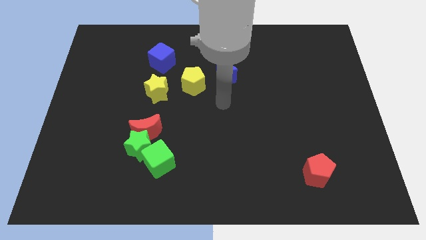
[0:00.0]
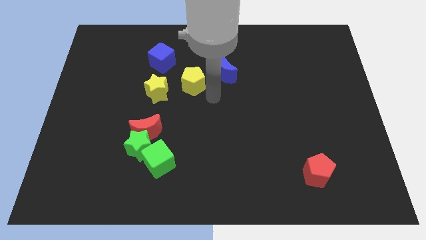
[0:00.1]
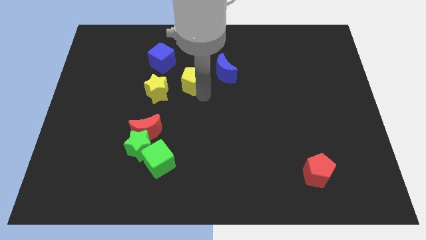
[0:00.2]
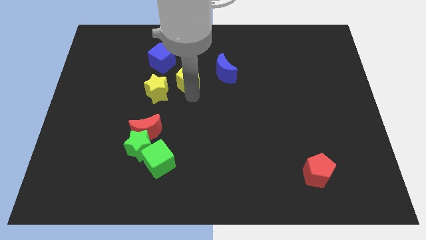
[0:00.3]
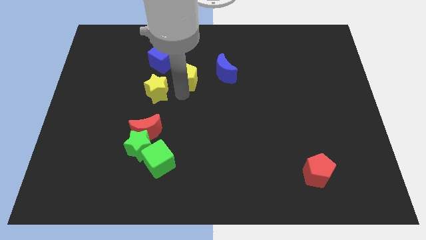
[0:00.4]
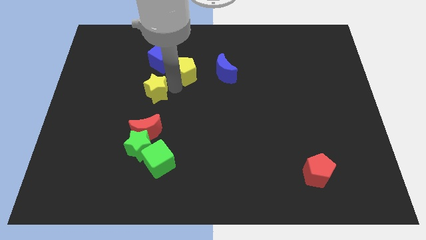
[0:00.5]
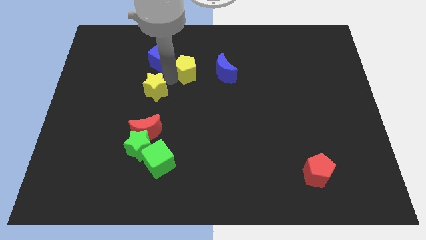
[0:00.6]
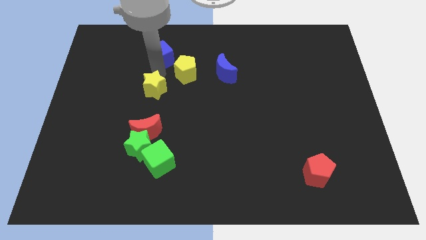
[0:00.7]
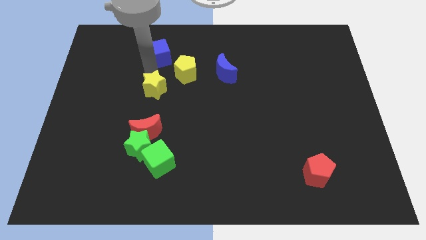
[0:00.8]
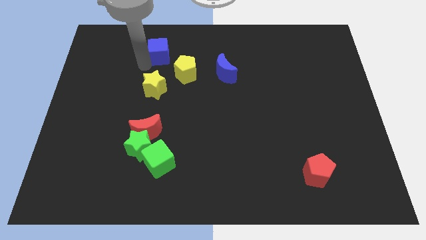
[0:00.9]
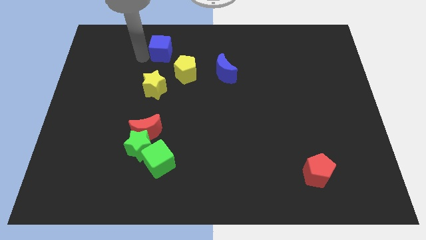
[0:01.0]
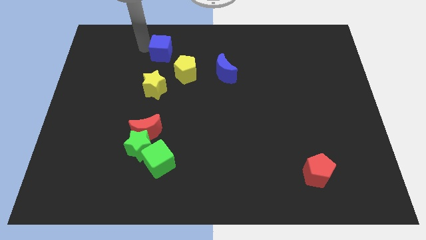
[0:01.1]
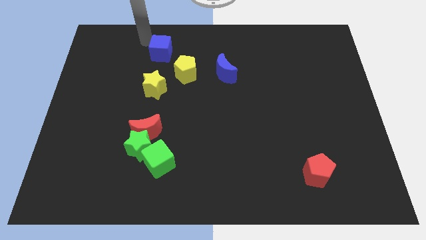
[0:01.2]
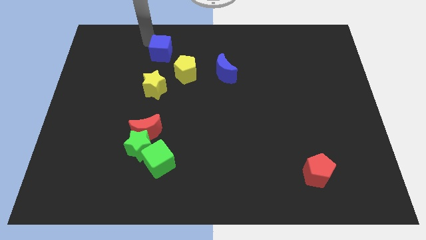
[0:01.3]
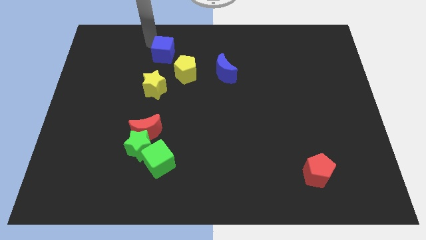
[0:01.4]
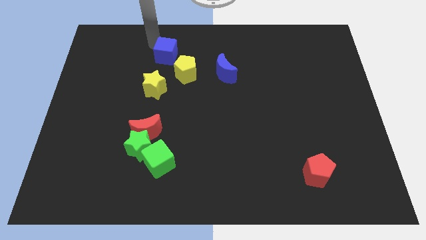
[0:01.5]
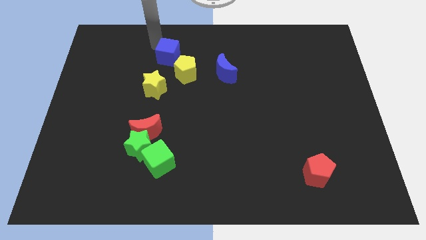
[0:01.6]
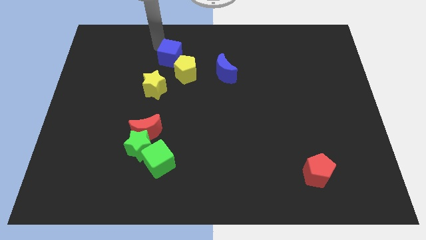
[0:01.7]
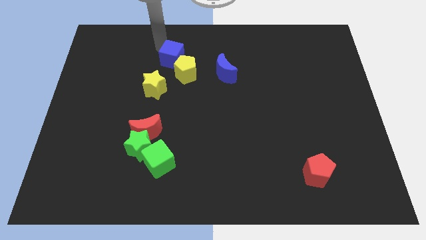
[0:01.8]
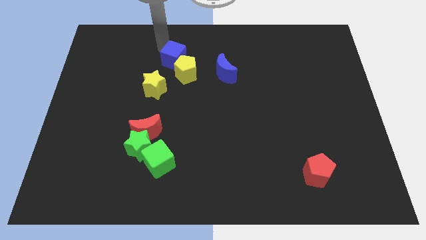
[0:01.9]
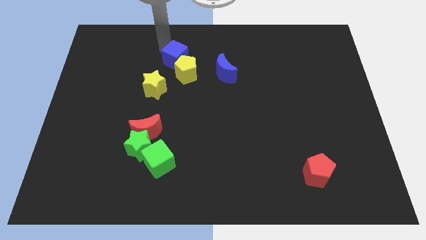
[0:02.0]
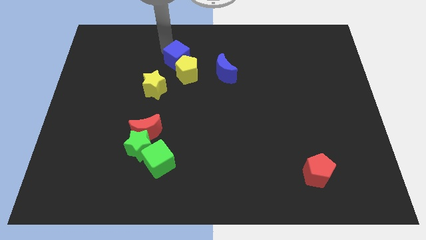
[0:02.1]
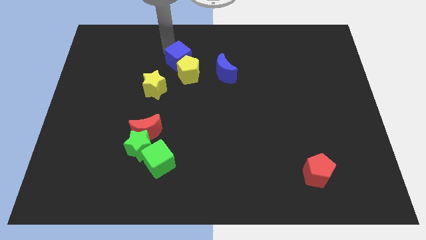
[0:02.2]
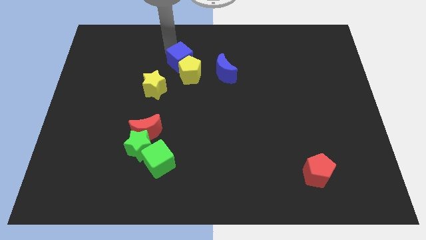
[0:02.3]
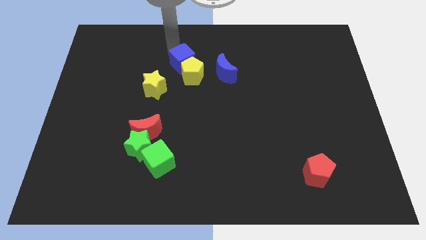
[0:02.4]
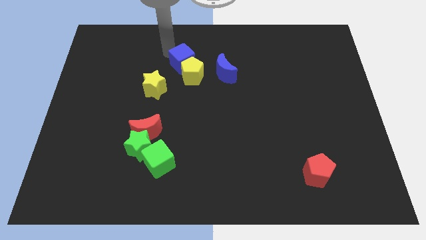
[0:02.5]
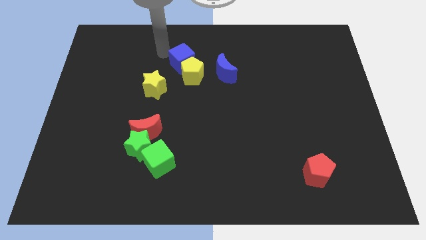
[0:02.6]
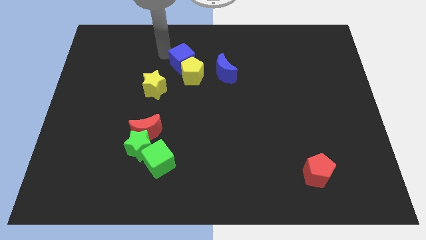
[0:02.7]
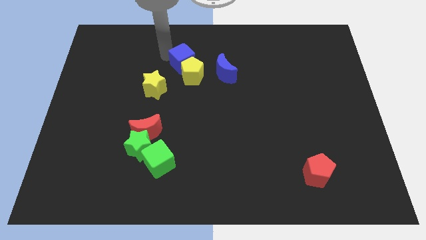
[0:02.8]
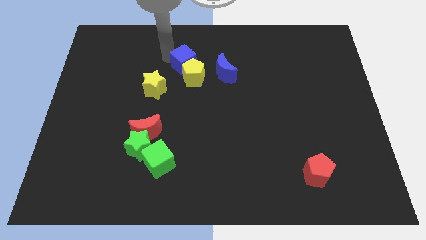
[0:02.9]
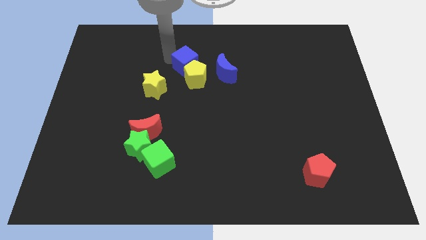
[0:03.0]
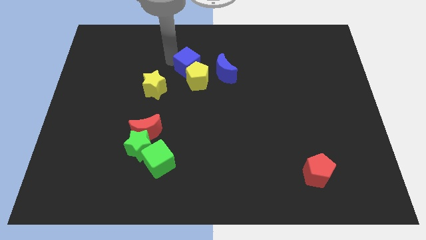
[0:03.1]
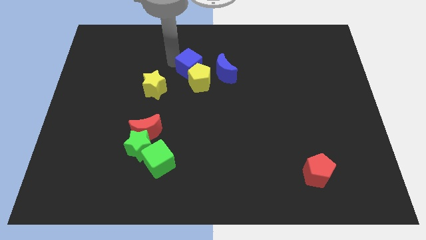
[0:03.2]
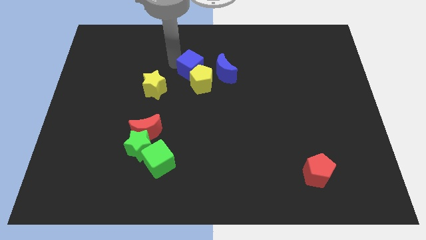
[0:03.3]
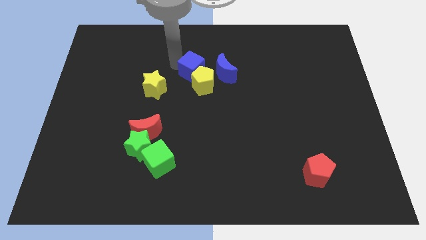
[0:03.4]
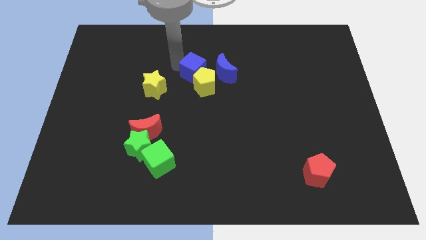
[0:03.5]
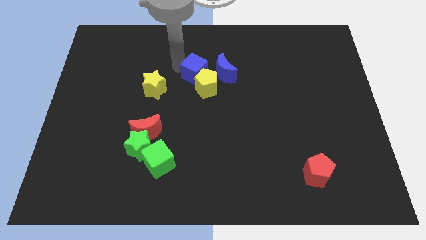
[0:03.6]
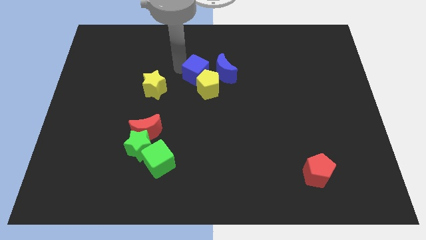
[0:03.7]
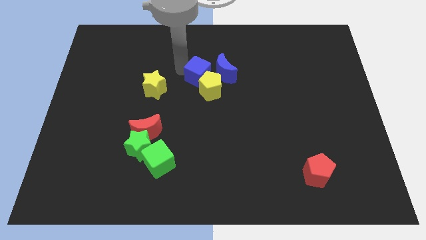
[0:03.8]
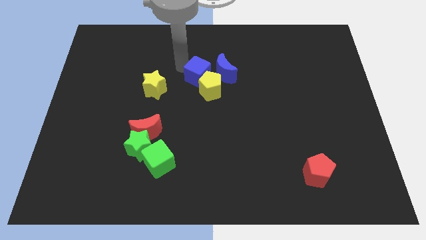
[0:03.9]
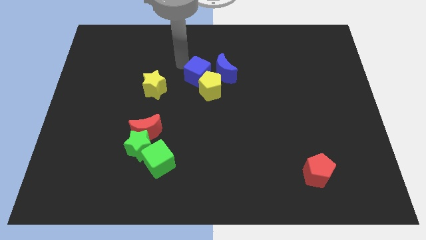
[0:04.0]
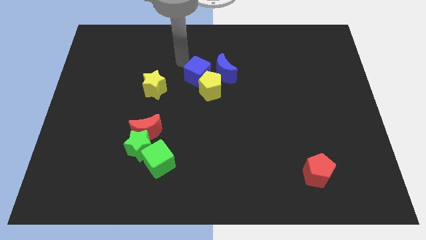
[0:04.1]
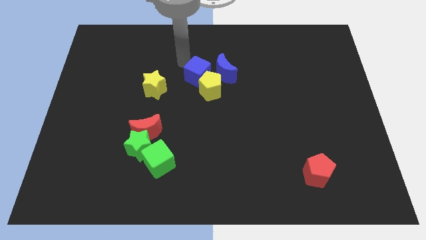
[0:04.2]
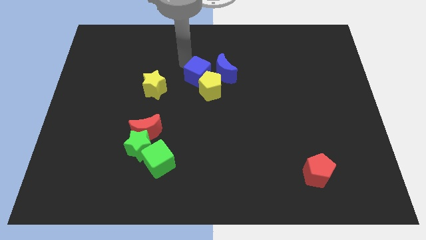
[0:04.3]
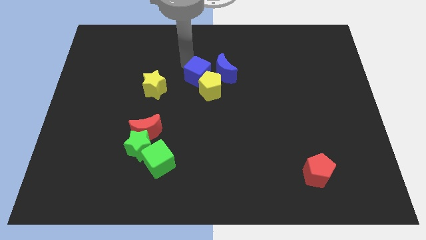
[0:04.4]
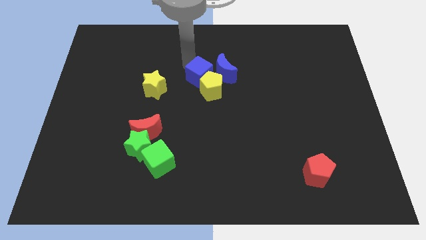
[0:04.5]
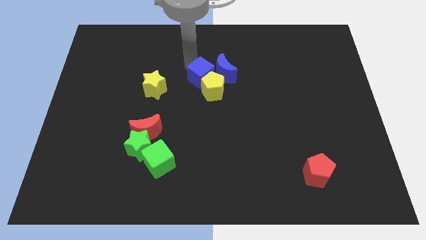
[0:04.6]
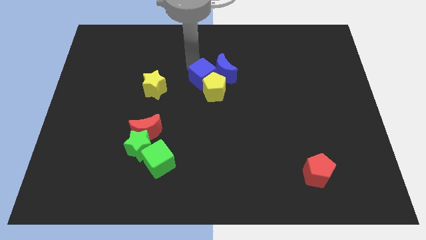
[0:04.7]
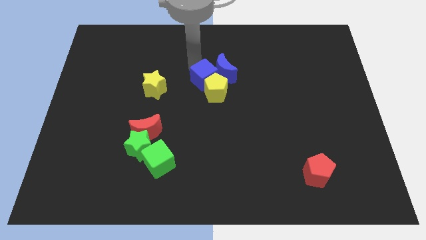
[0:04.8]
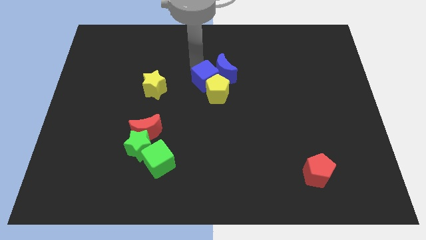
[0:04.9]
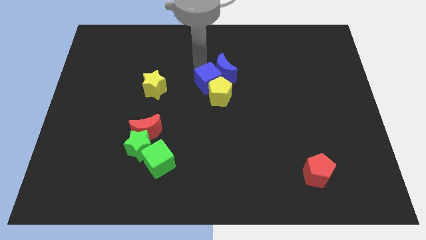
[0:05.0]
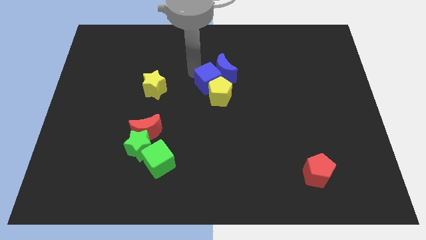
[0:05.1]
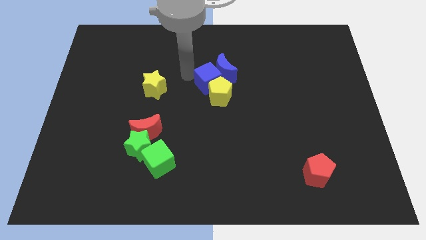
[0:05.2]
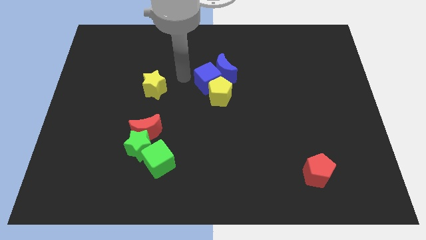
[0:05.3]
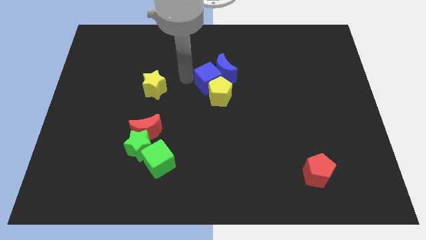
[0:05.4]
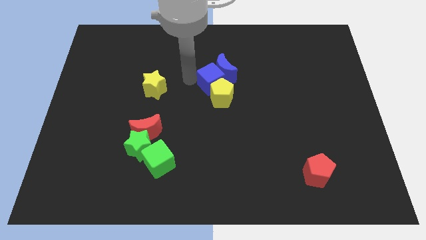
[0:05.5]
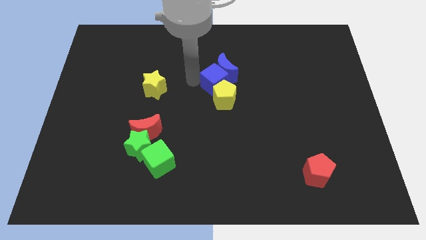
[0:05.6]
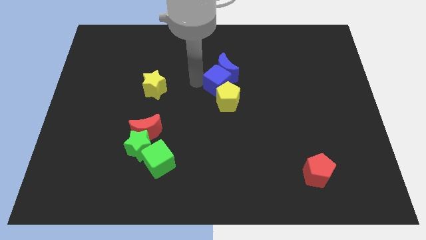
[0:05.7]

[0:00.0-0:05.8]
slide the blue cube diagonally down and to the right of the blue moon

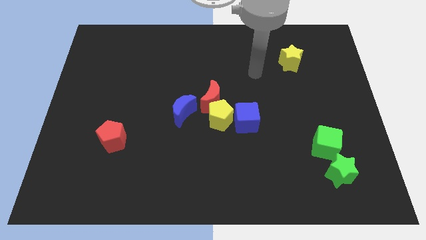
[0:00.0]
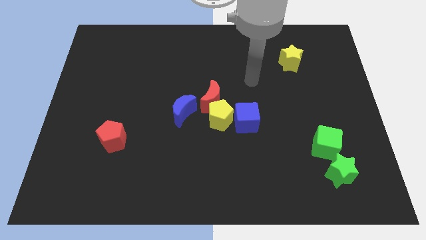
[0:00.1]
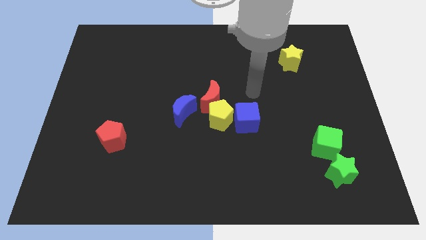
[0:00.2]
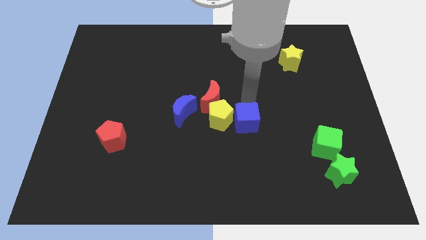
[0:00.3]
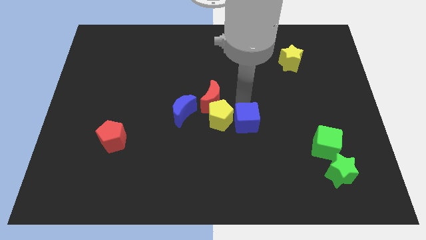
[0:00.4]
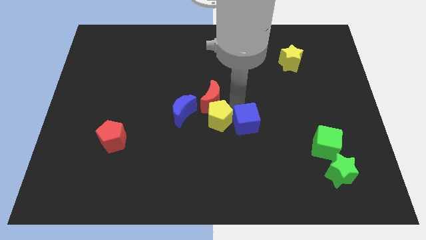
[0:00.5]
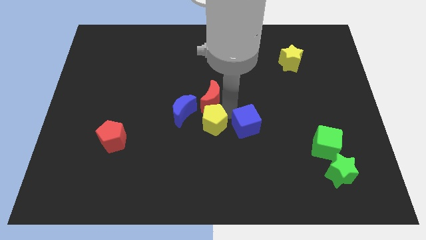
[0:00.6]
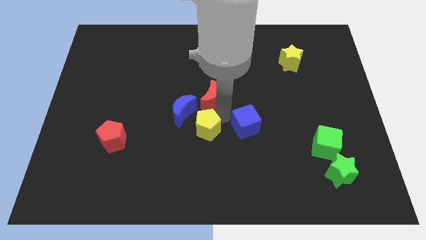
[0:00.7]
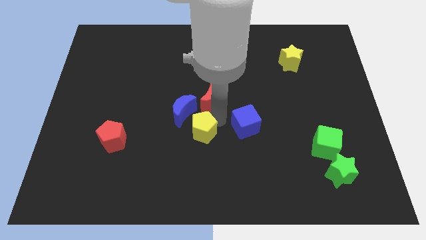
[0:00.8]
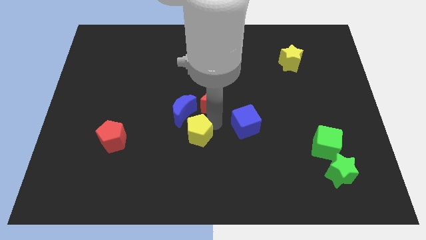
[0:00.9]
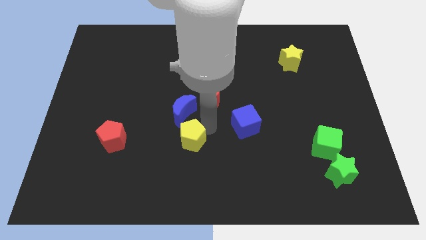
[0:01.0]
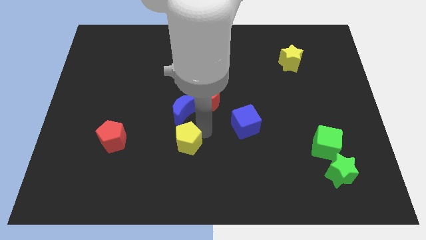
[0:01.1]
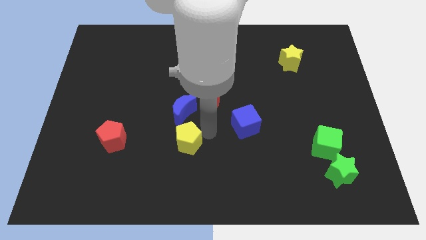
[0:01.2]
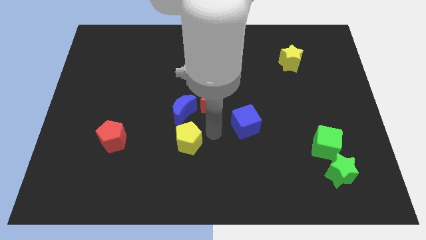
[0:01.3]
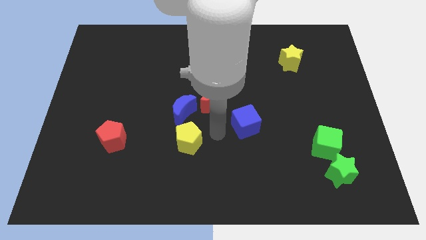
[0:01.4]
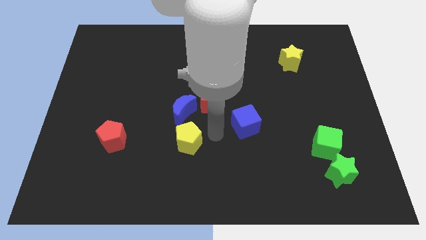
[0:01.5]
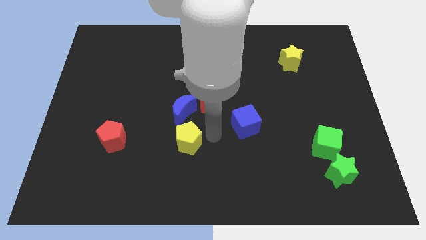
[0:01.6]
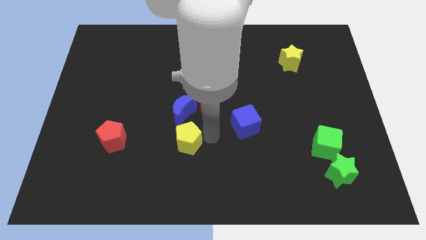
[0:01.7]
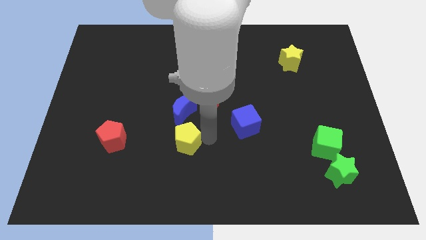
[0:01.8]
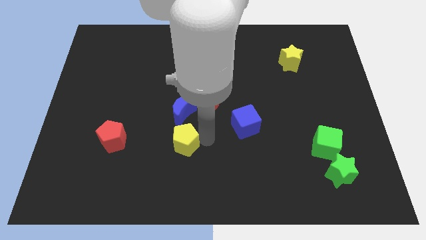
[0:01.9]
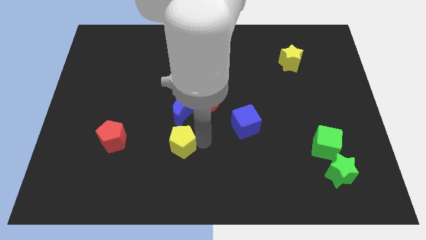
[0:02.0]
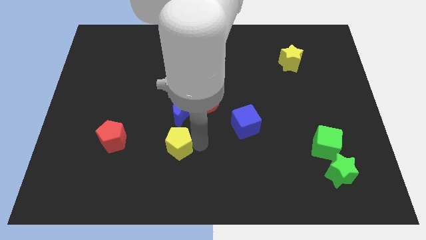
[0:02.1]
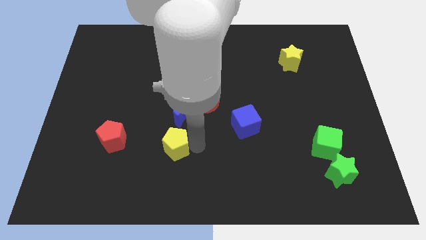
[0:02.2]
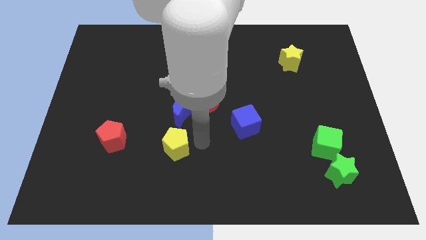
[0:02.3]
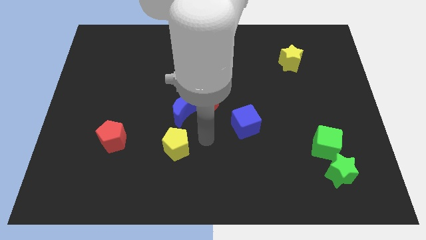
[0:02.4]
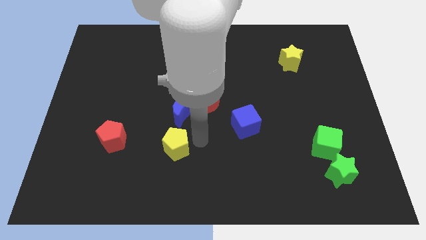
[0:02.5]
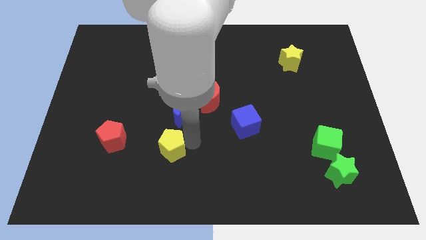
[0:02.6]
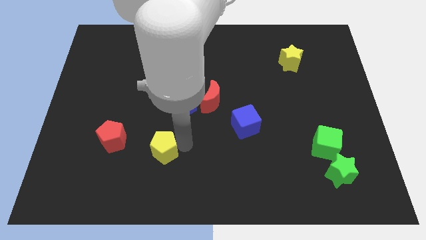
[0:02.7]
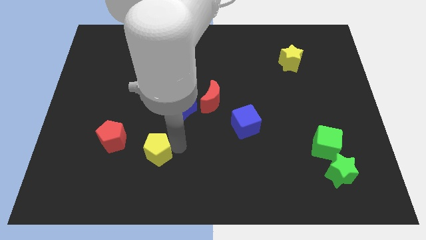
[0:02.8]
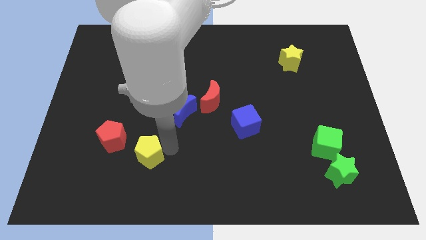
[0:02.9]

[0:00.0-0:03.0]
put the yellow pentagon to the bottom right of the red pentagon
